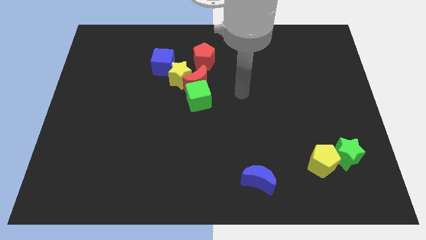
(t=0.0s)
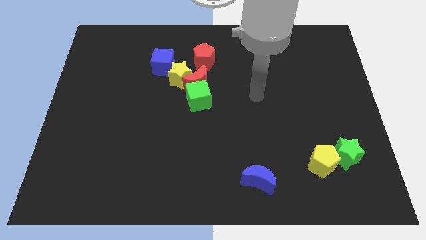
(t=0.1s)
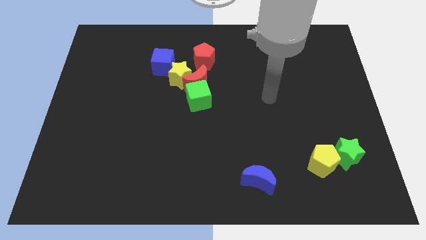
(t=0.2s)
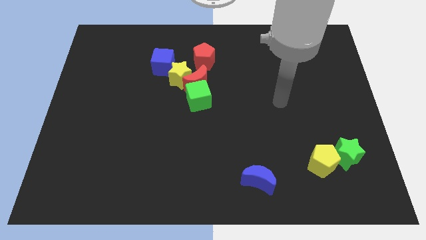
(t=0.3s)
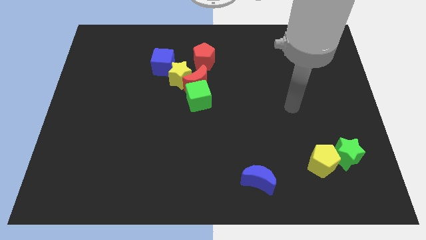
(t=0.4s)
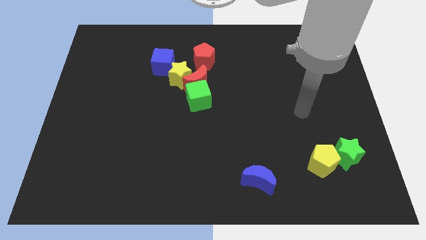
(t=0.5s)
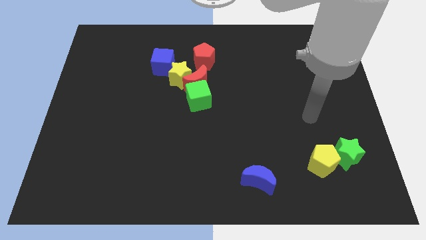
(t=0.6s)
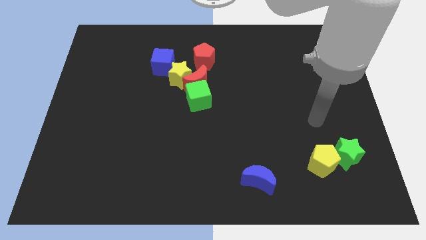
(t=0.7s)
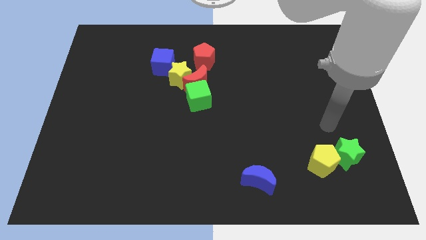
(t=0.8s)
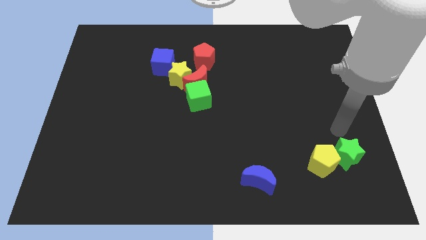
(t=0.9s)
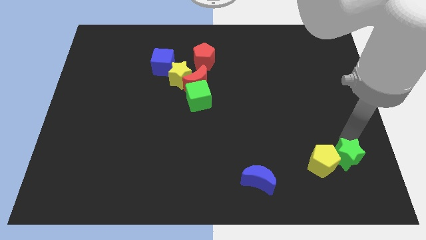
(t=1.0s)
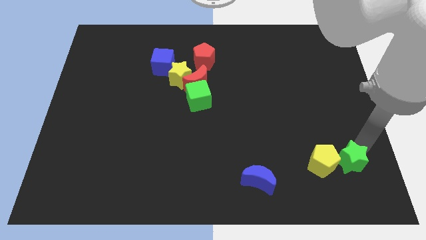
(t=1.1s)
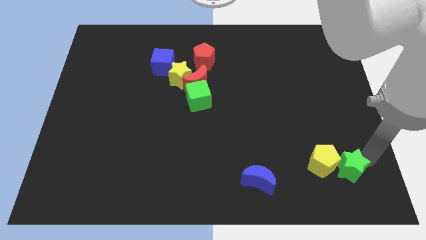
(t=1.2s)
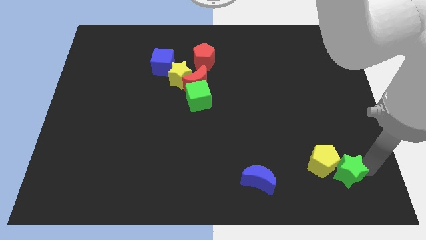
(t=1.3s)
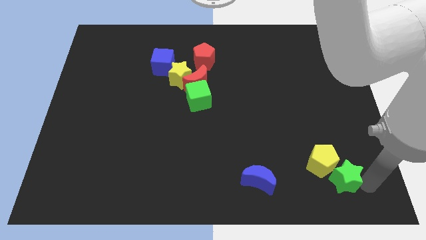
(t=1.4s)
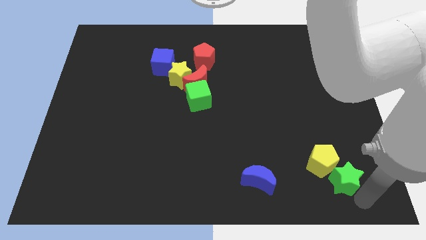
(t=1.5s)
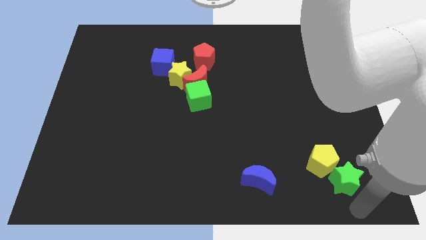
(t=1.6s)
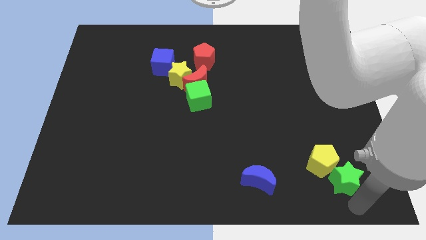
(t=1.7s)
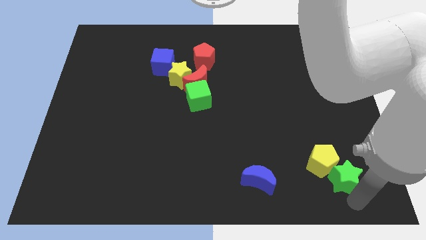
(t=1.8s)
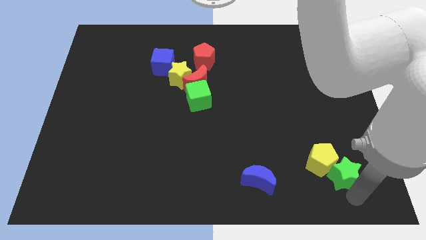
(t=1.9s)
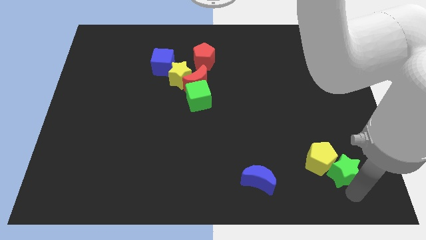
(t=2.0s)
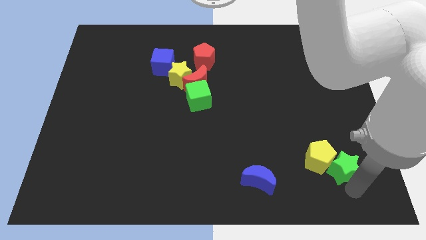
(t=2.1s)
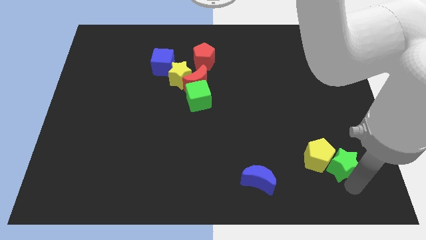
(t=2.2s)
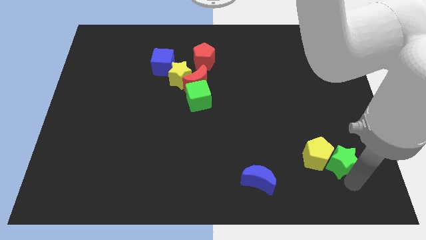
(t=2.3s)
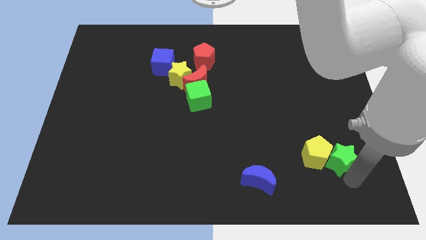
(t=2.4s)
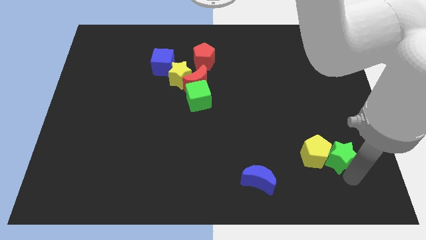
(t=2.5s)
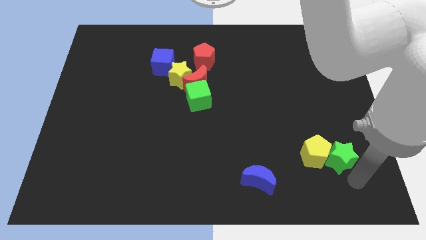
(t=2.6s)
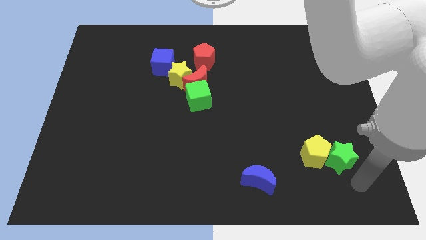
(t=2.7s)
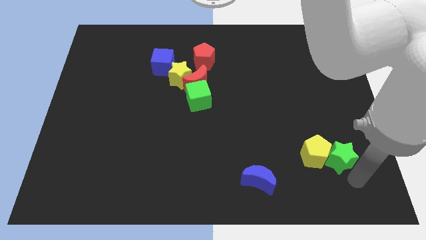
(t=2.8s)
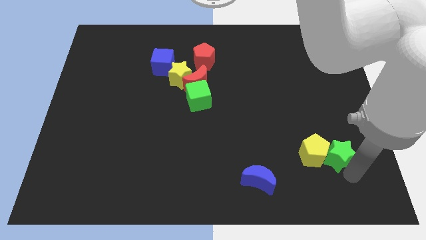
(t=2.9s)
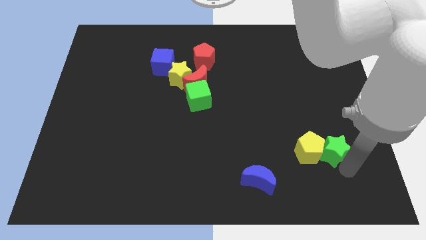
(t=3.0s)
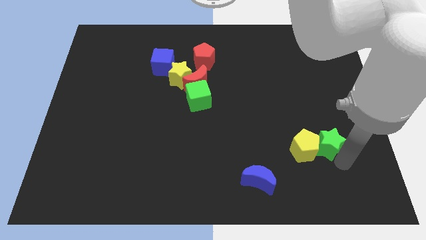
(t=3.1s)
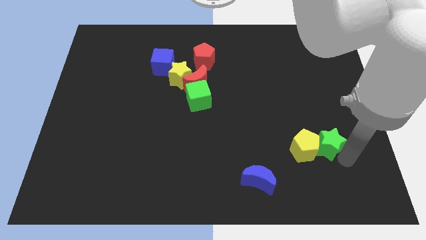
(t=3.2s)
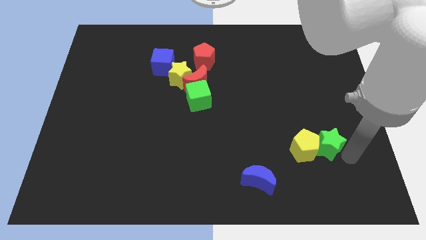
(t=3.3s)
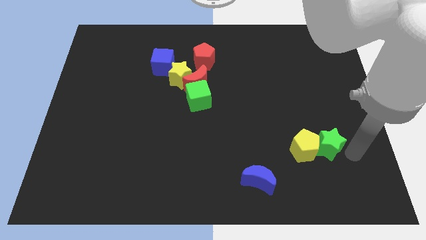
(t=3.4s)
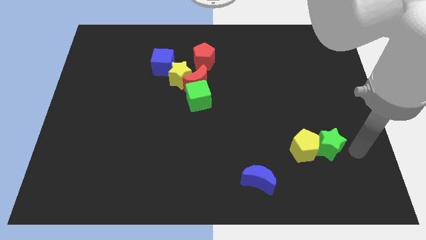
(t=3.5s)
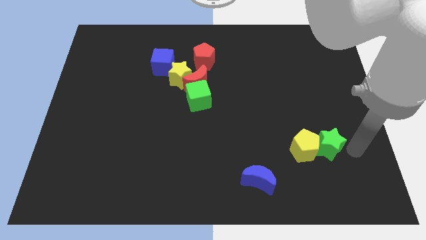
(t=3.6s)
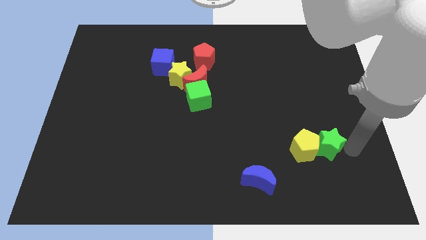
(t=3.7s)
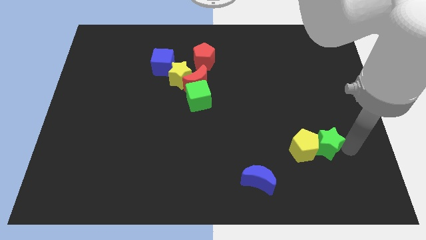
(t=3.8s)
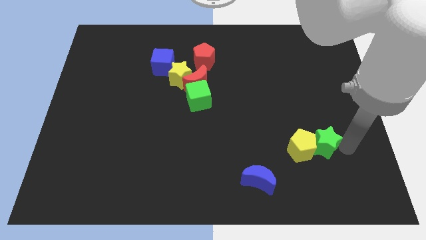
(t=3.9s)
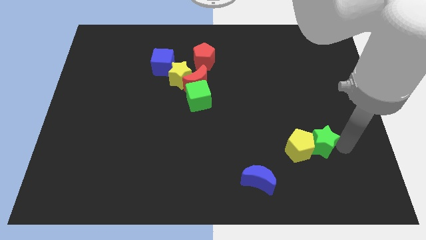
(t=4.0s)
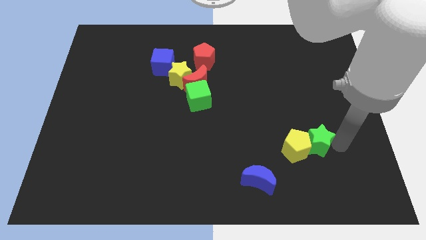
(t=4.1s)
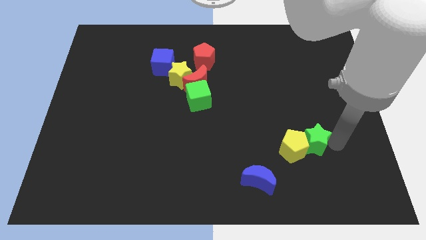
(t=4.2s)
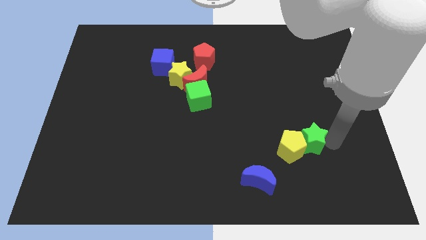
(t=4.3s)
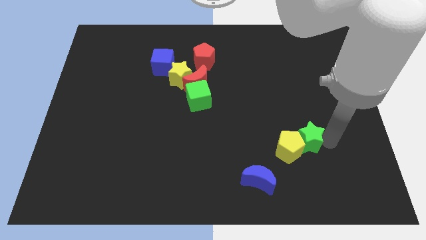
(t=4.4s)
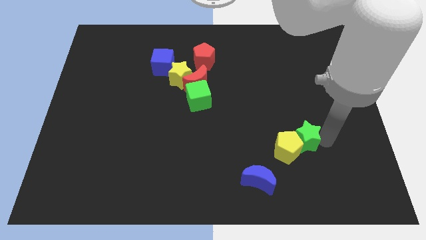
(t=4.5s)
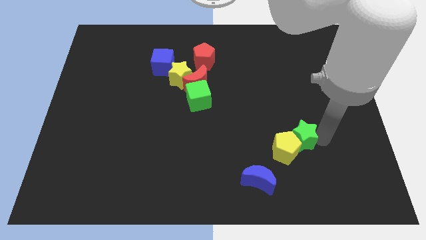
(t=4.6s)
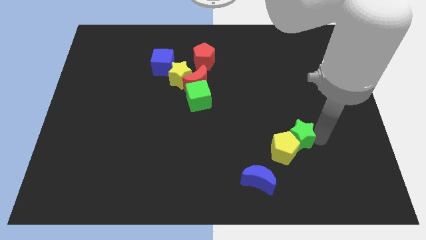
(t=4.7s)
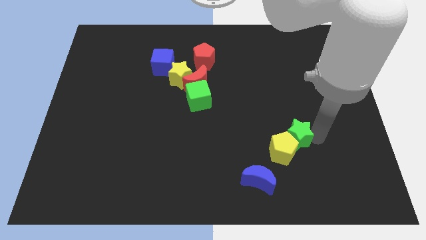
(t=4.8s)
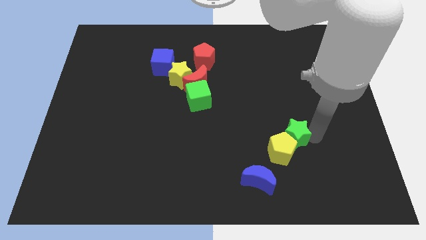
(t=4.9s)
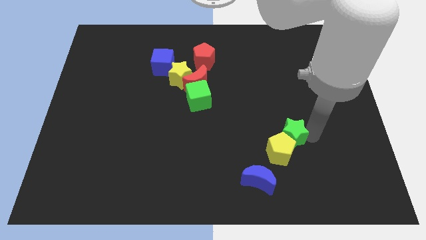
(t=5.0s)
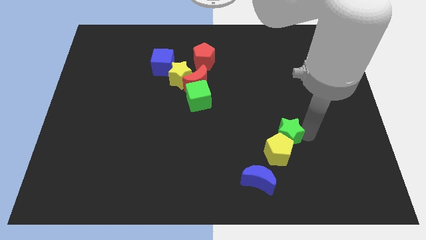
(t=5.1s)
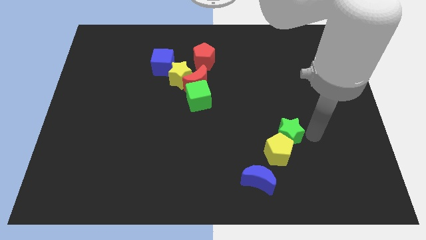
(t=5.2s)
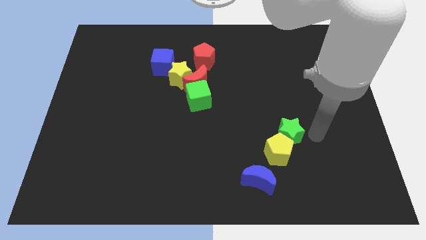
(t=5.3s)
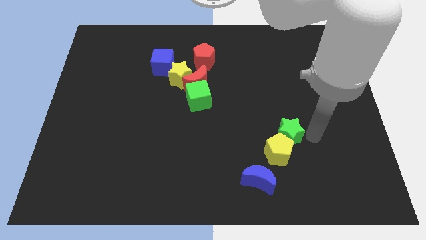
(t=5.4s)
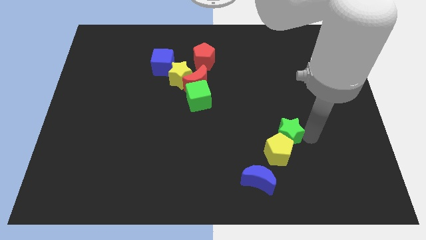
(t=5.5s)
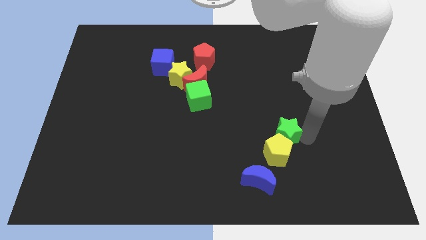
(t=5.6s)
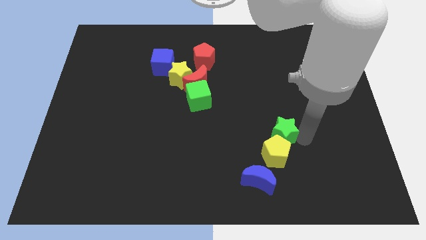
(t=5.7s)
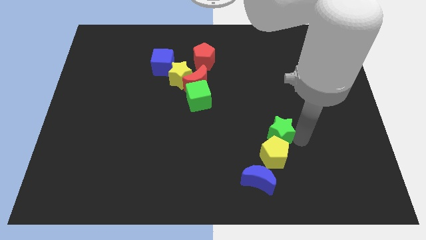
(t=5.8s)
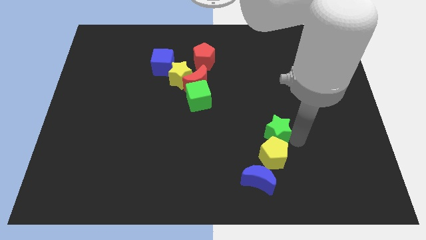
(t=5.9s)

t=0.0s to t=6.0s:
push the green star above the blue moon

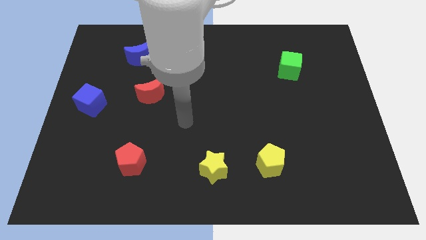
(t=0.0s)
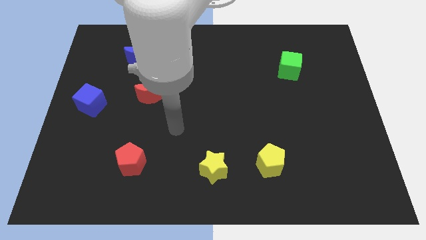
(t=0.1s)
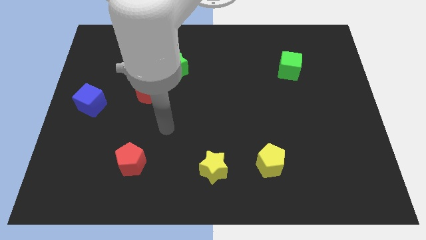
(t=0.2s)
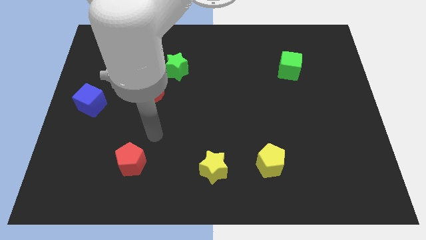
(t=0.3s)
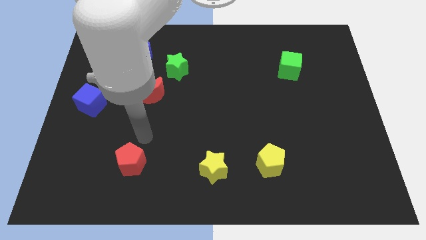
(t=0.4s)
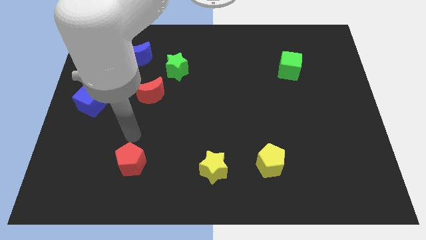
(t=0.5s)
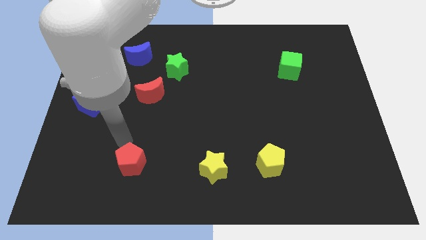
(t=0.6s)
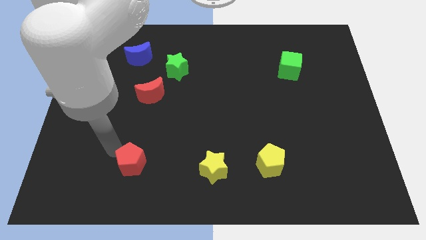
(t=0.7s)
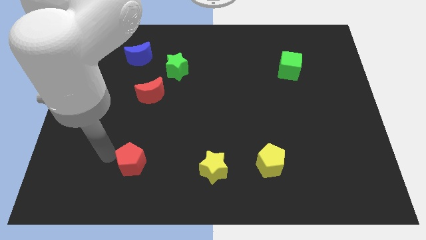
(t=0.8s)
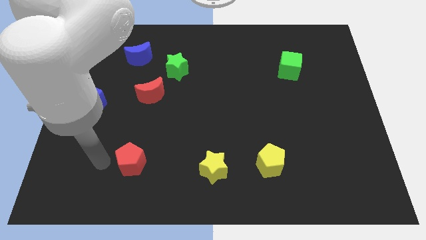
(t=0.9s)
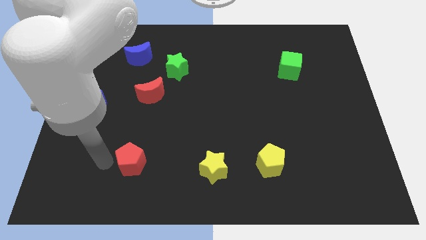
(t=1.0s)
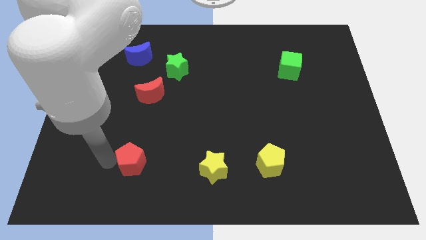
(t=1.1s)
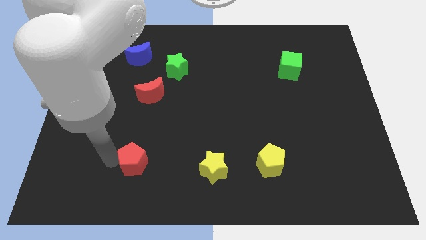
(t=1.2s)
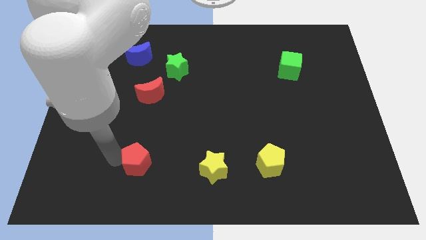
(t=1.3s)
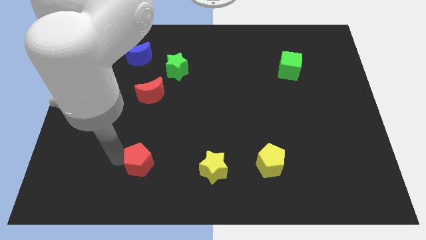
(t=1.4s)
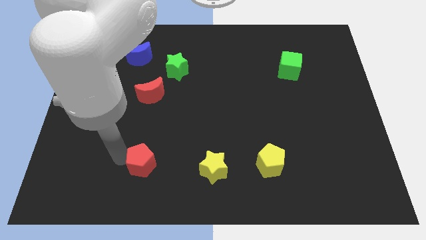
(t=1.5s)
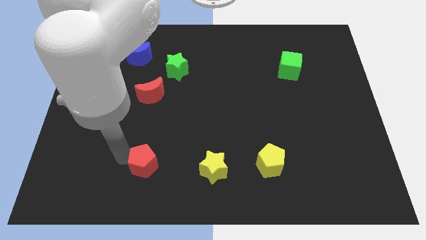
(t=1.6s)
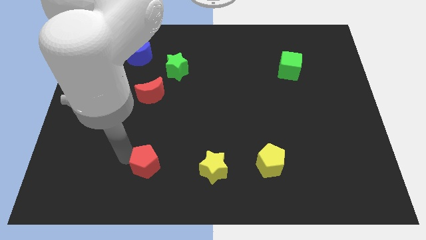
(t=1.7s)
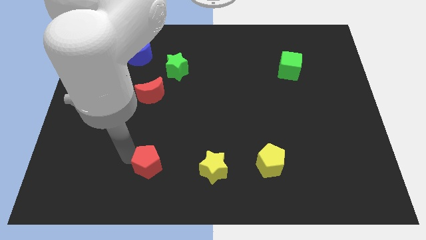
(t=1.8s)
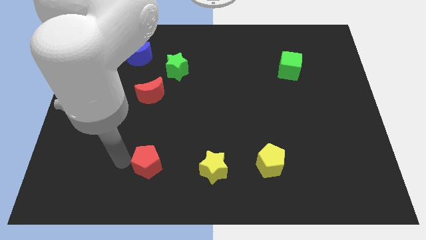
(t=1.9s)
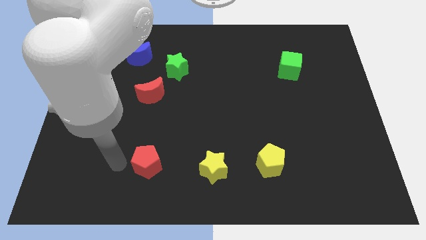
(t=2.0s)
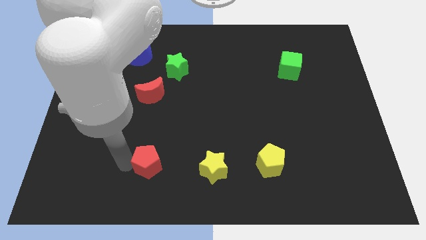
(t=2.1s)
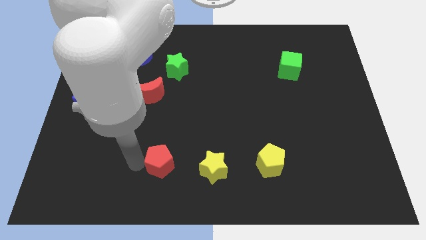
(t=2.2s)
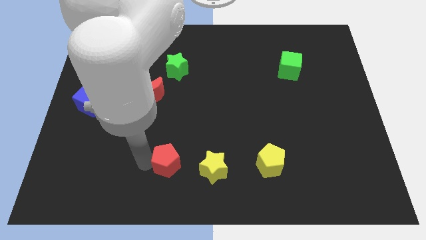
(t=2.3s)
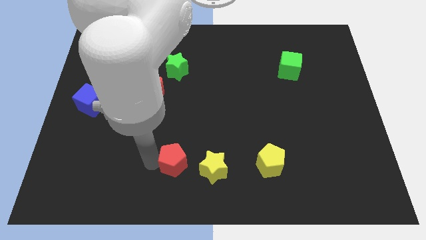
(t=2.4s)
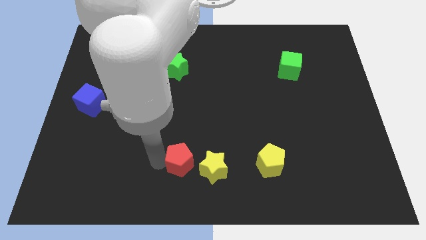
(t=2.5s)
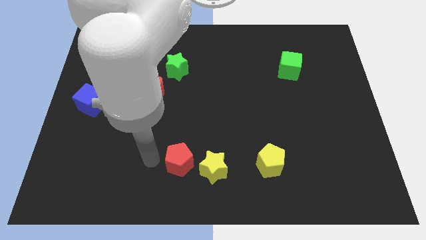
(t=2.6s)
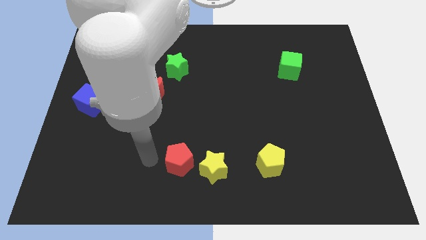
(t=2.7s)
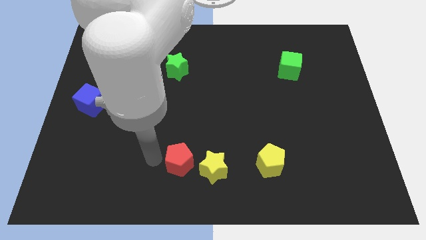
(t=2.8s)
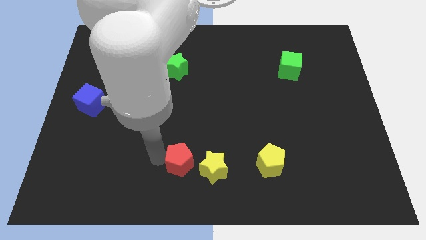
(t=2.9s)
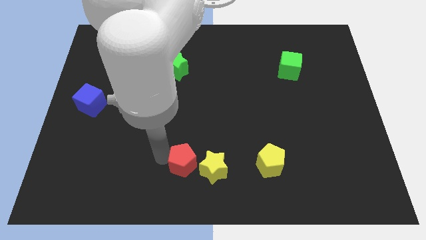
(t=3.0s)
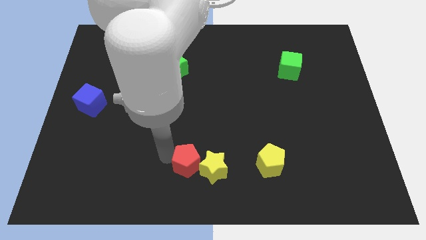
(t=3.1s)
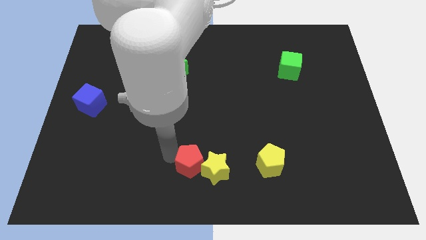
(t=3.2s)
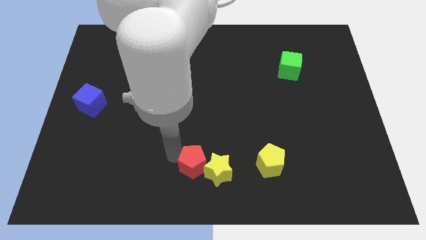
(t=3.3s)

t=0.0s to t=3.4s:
put the red pentagon left of the yellow pentagon
